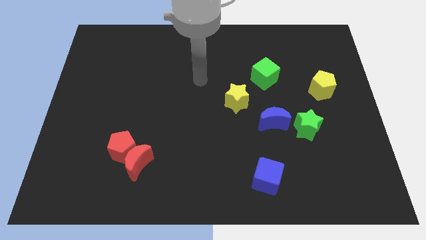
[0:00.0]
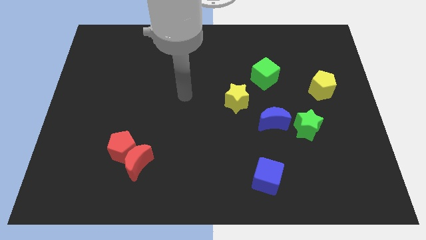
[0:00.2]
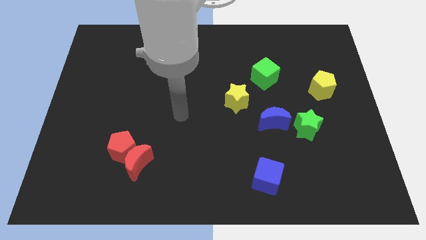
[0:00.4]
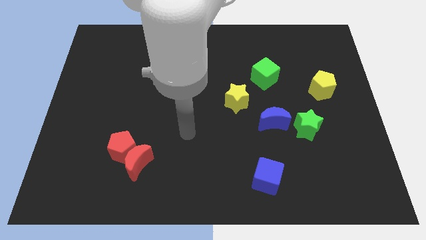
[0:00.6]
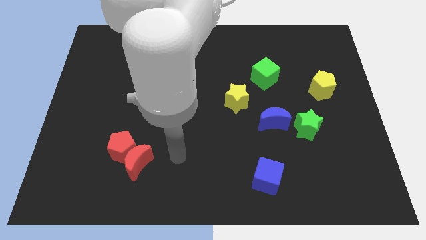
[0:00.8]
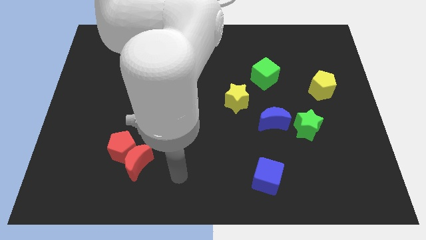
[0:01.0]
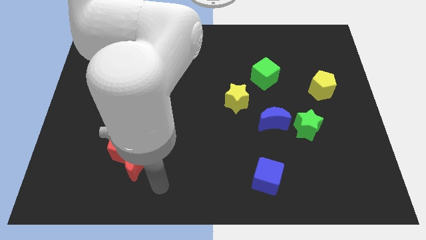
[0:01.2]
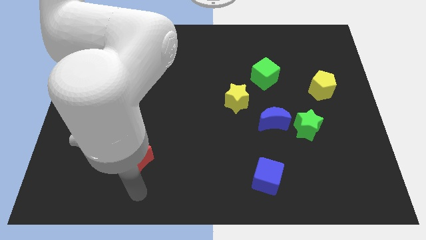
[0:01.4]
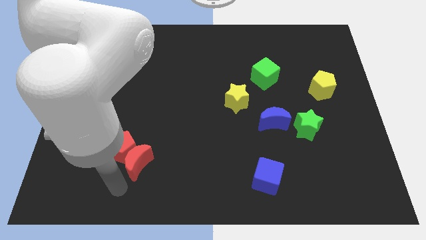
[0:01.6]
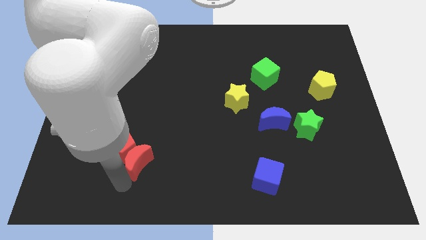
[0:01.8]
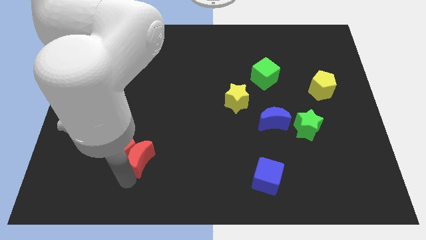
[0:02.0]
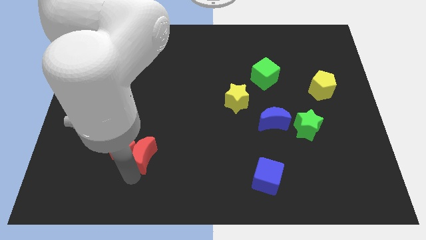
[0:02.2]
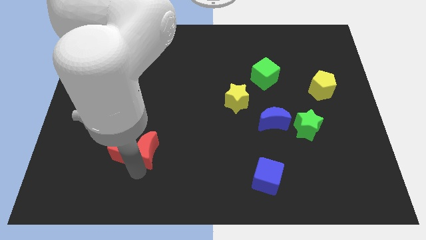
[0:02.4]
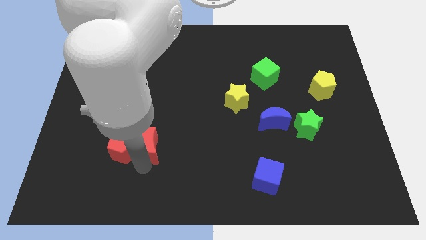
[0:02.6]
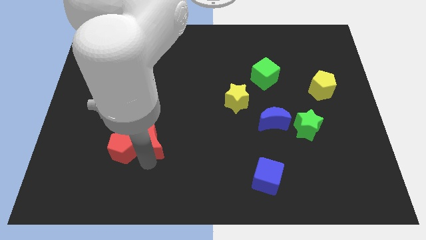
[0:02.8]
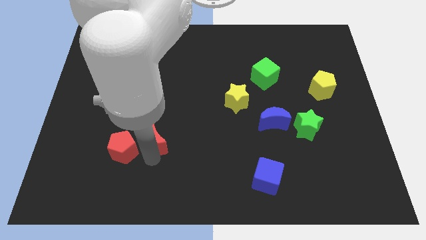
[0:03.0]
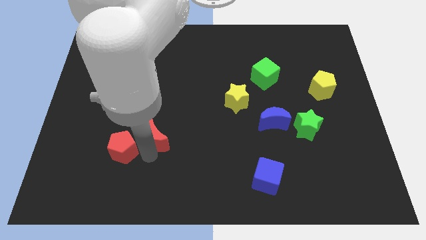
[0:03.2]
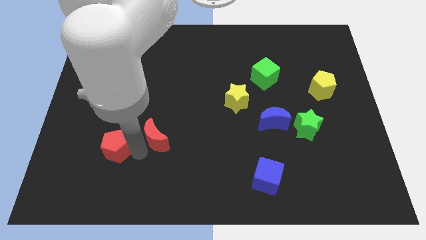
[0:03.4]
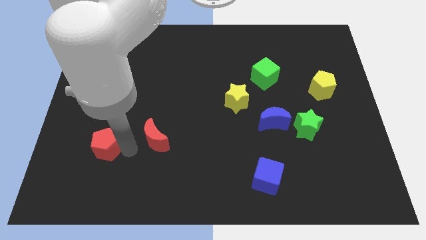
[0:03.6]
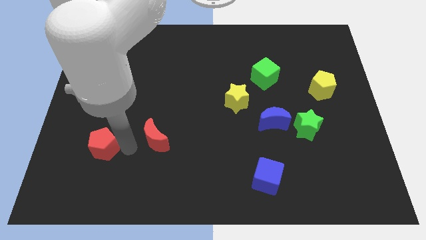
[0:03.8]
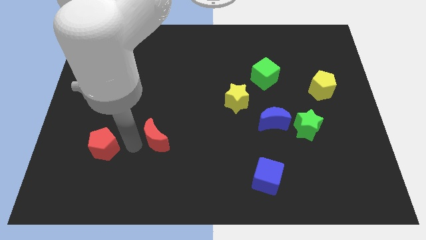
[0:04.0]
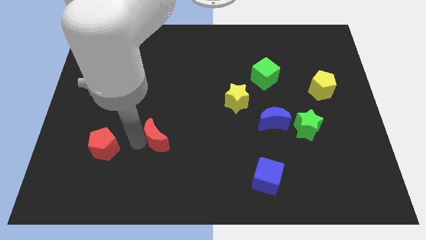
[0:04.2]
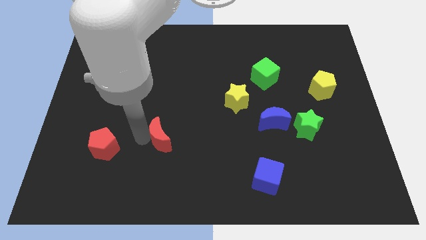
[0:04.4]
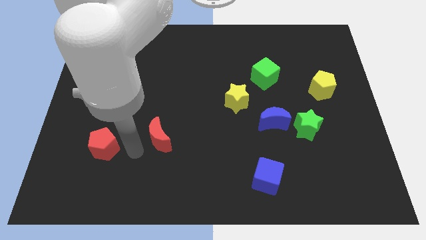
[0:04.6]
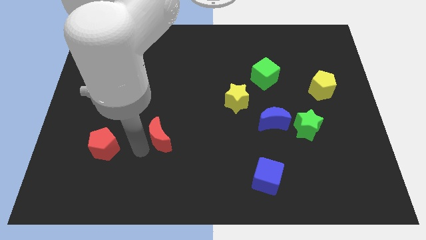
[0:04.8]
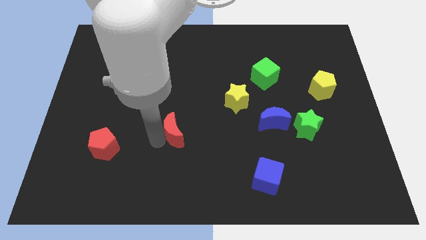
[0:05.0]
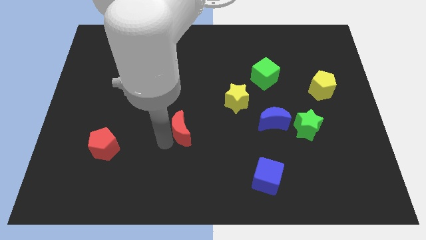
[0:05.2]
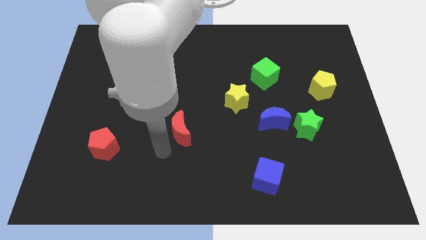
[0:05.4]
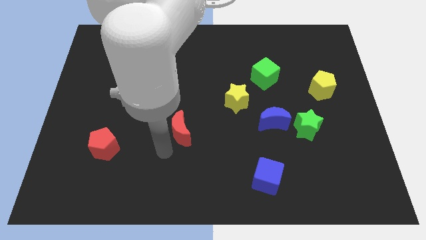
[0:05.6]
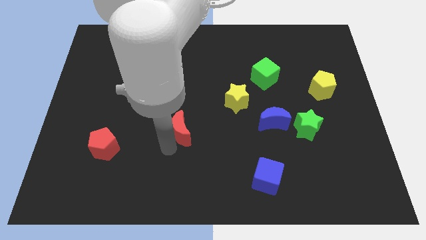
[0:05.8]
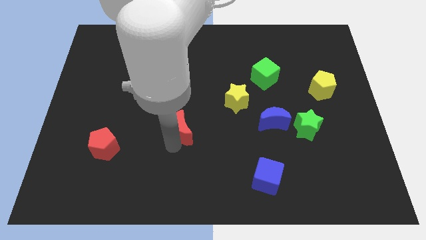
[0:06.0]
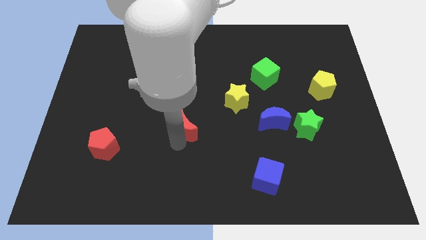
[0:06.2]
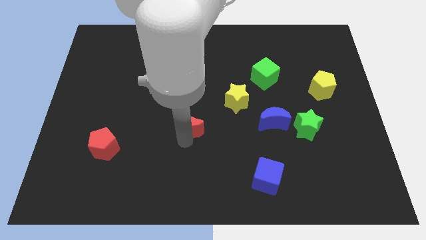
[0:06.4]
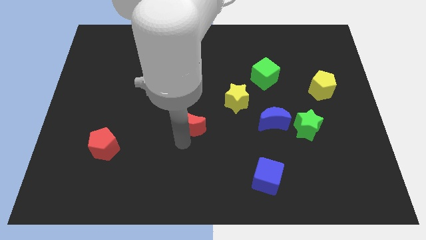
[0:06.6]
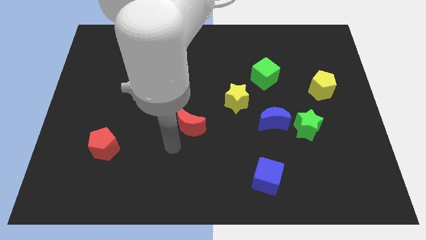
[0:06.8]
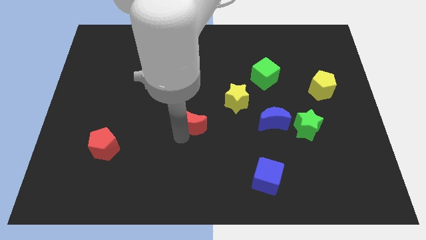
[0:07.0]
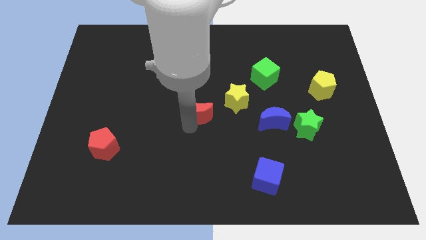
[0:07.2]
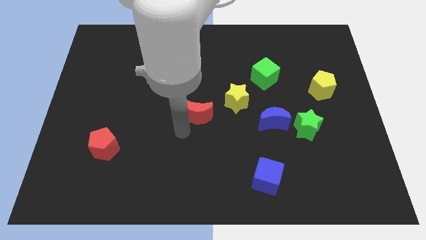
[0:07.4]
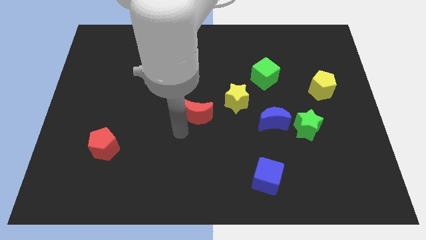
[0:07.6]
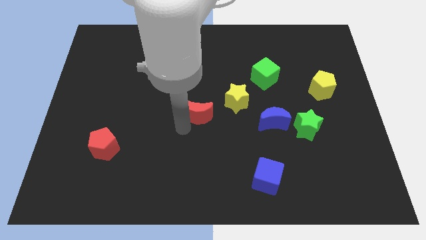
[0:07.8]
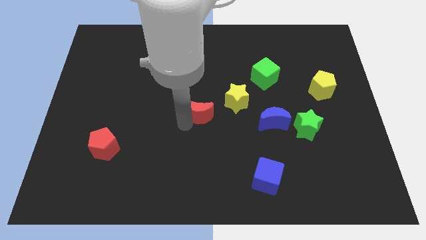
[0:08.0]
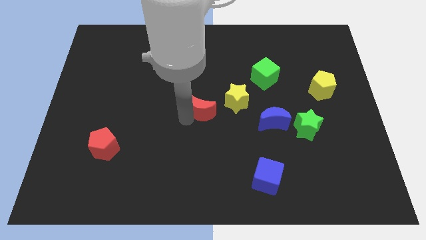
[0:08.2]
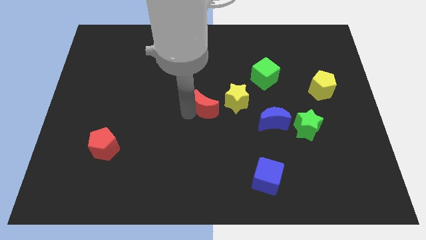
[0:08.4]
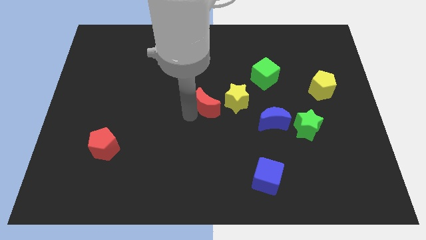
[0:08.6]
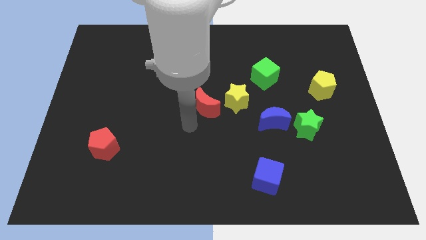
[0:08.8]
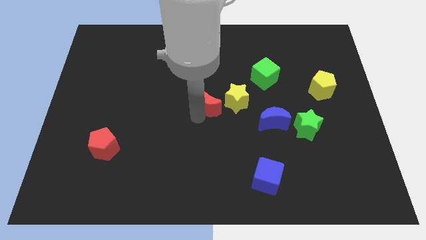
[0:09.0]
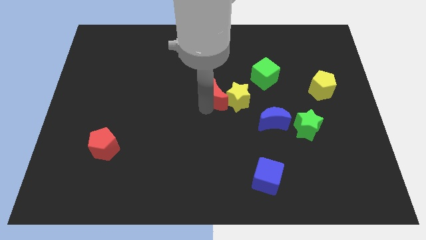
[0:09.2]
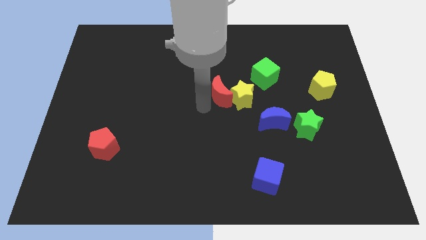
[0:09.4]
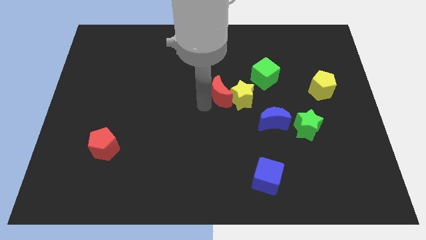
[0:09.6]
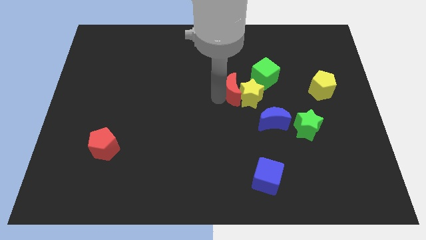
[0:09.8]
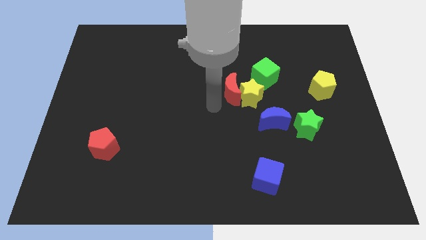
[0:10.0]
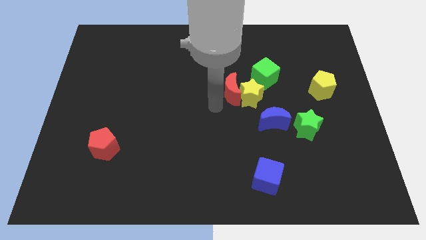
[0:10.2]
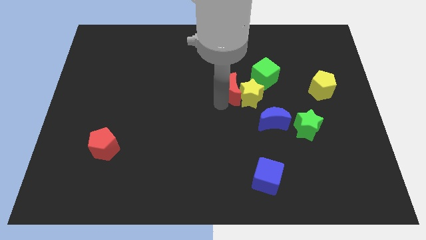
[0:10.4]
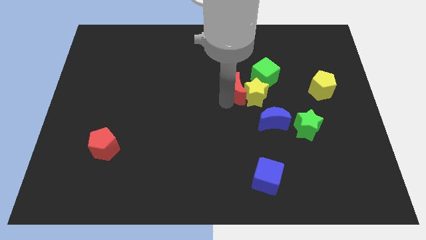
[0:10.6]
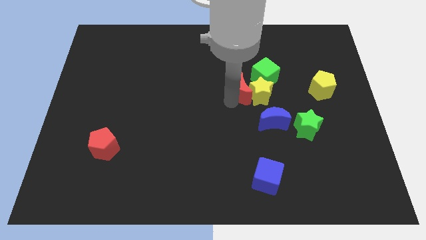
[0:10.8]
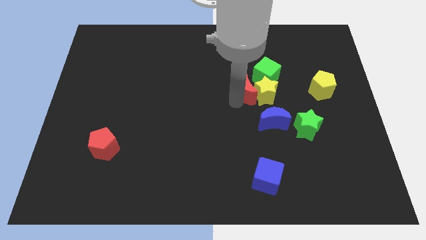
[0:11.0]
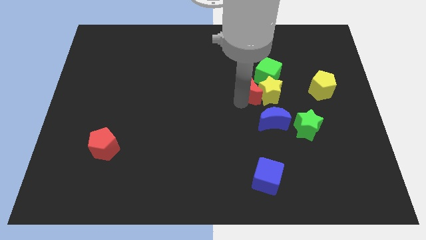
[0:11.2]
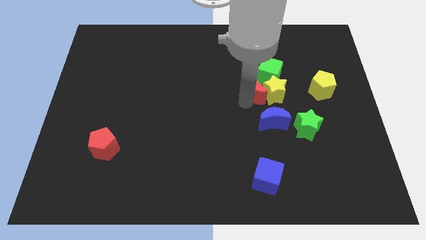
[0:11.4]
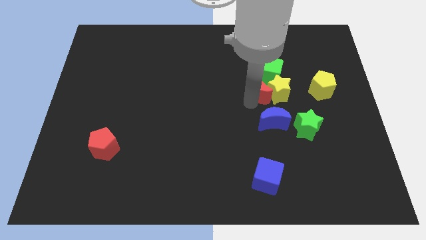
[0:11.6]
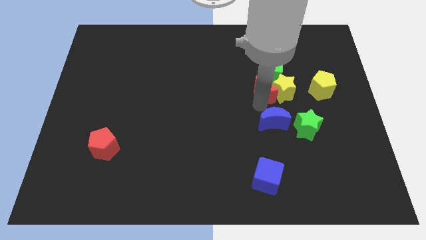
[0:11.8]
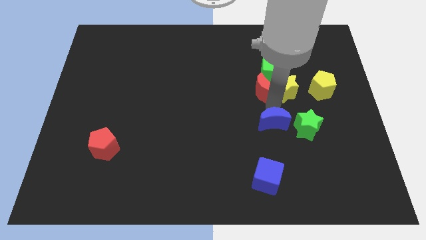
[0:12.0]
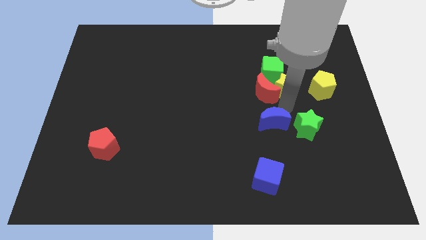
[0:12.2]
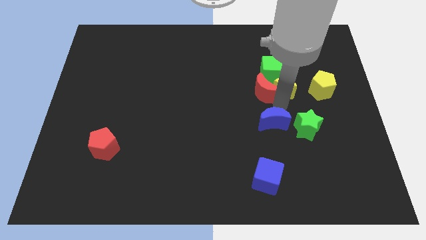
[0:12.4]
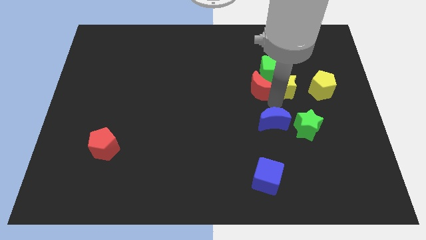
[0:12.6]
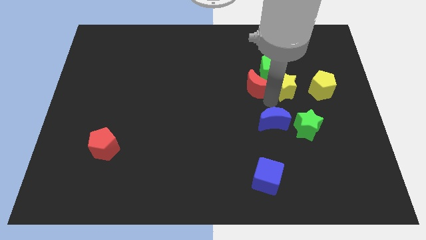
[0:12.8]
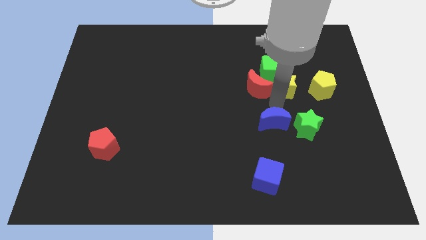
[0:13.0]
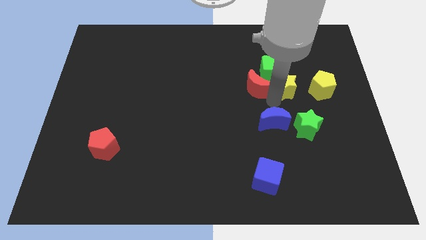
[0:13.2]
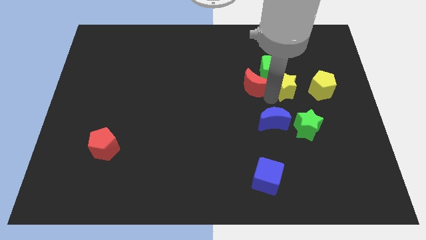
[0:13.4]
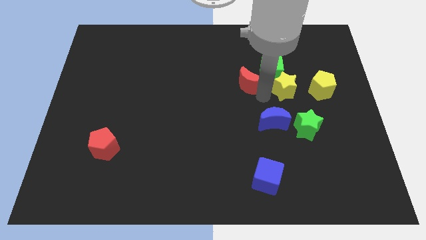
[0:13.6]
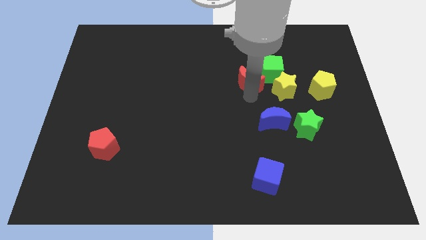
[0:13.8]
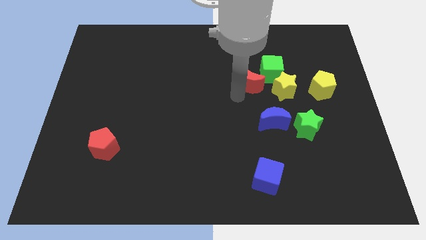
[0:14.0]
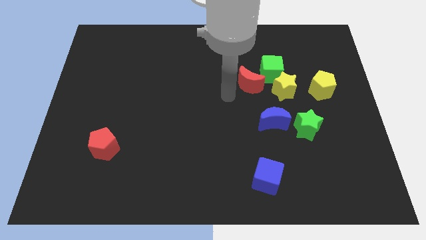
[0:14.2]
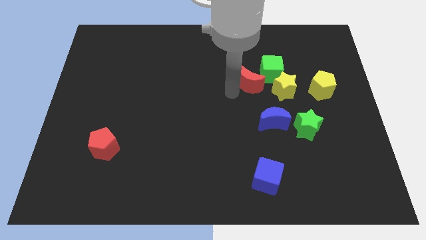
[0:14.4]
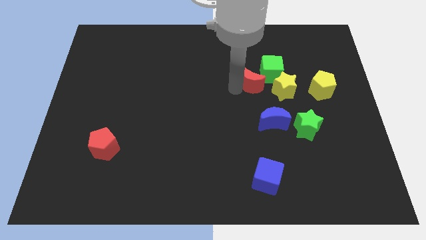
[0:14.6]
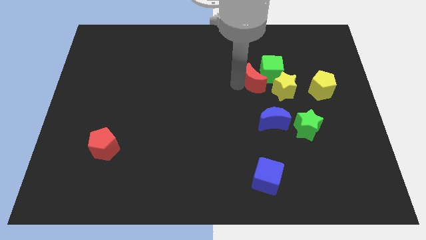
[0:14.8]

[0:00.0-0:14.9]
slide the red moon towards the green cube
